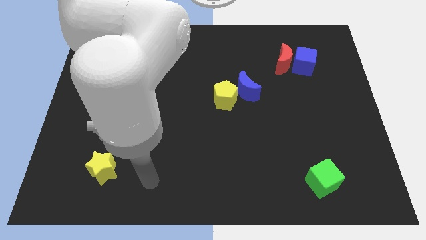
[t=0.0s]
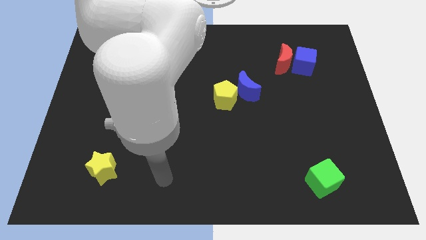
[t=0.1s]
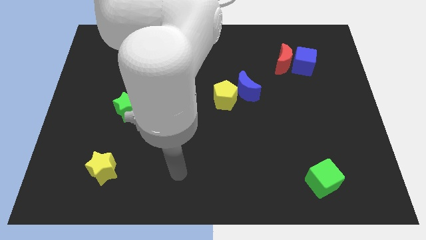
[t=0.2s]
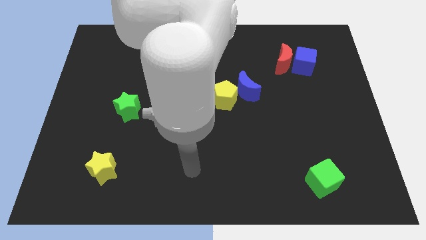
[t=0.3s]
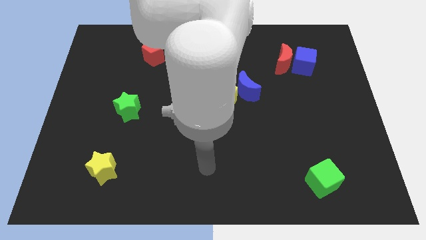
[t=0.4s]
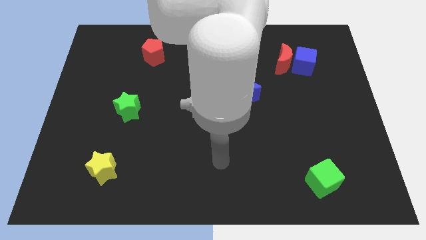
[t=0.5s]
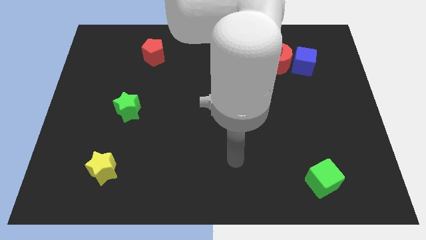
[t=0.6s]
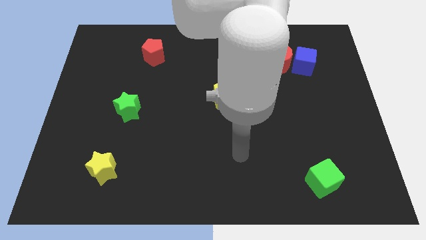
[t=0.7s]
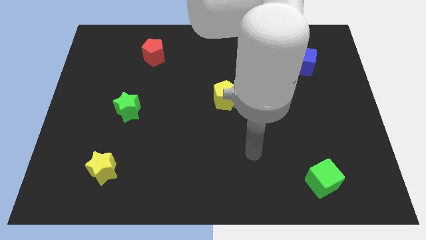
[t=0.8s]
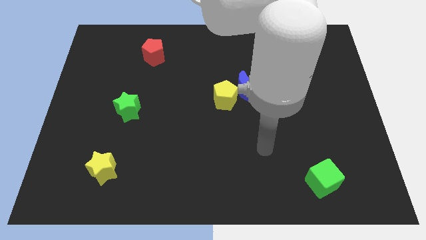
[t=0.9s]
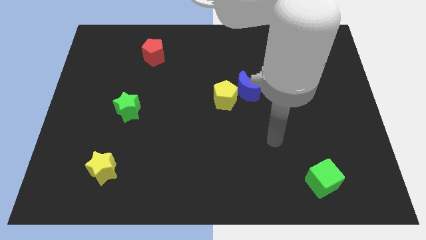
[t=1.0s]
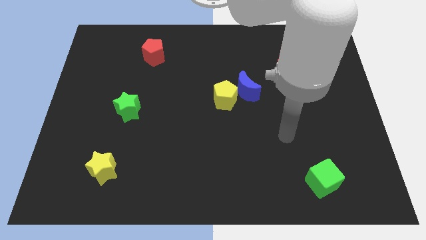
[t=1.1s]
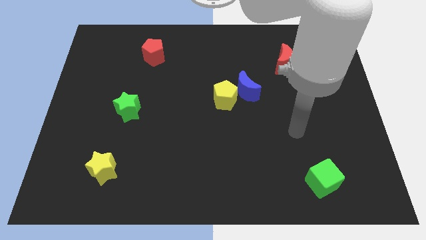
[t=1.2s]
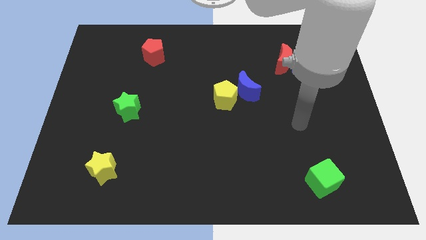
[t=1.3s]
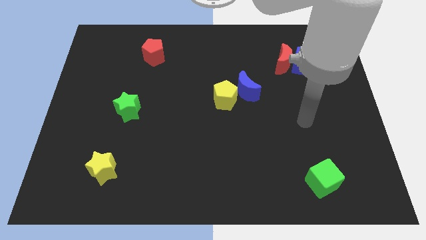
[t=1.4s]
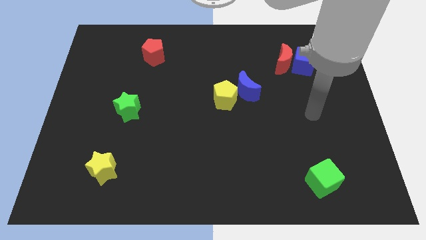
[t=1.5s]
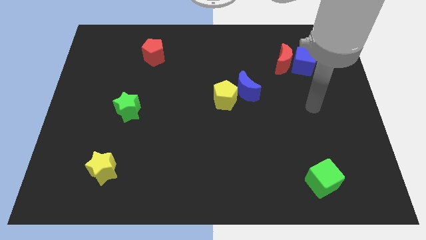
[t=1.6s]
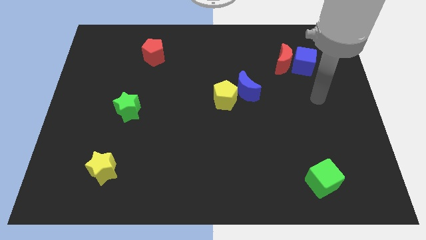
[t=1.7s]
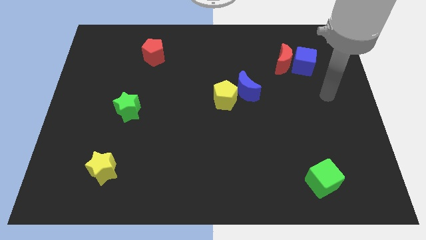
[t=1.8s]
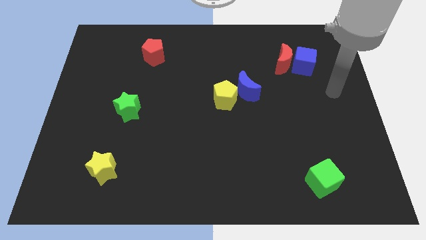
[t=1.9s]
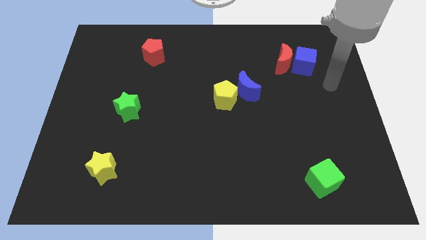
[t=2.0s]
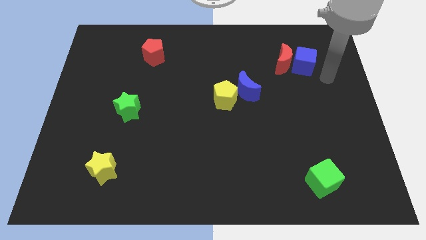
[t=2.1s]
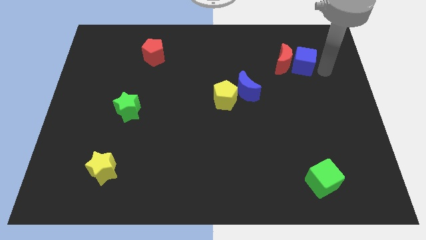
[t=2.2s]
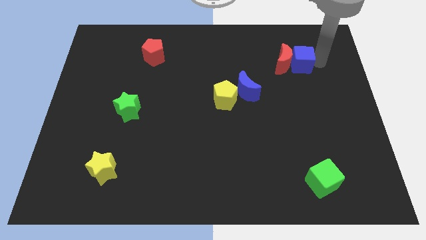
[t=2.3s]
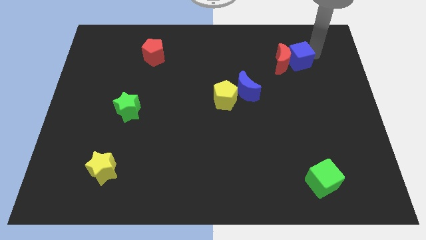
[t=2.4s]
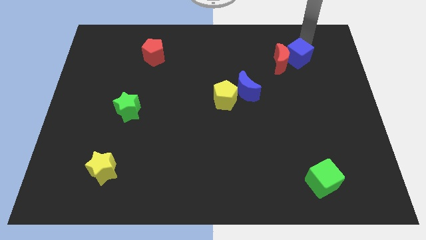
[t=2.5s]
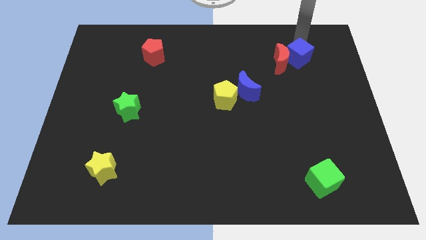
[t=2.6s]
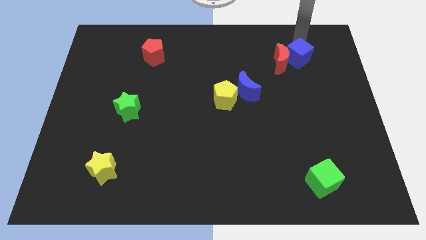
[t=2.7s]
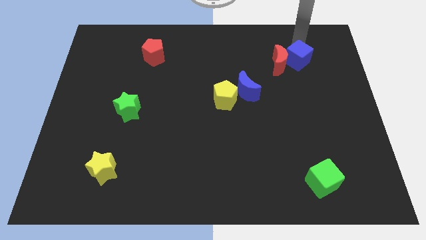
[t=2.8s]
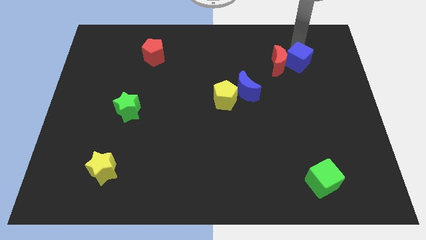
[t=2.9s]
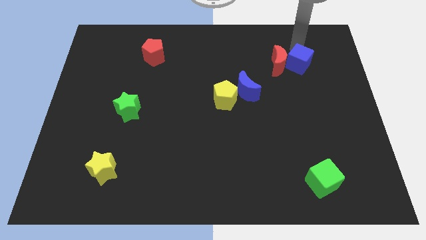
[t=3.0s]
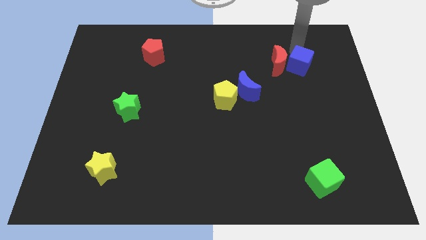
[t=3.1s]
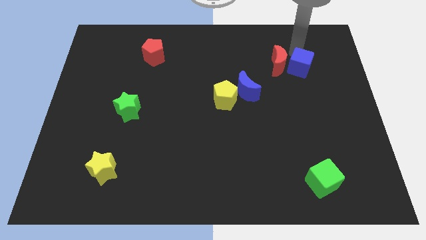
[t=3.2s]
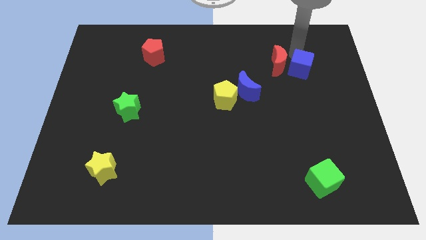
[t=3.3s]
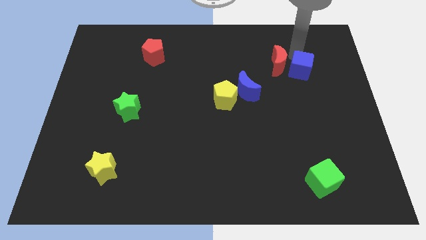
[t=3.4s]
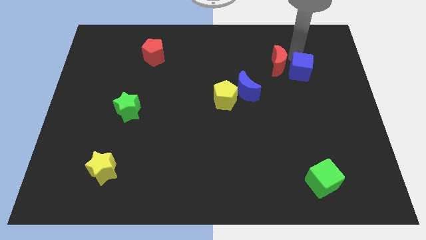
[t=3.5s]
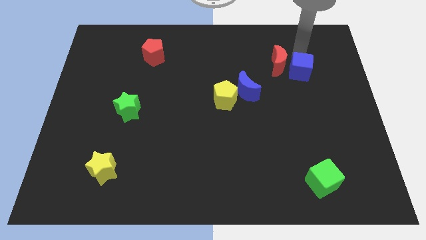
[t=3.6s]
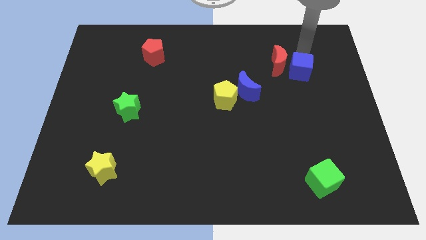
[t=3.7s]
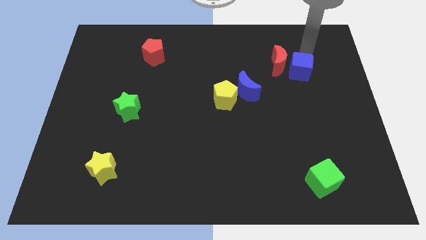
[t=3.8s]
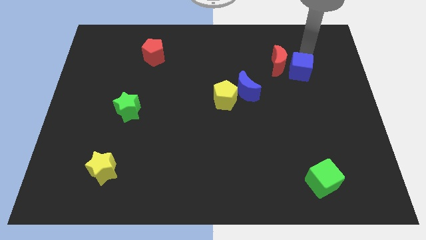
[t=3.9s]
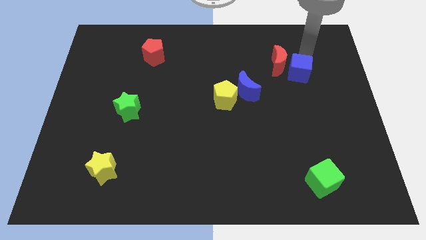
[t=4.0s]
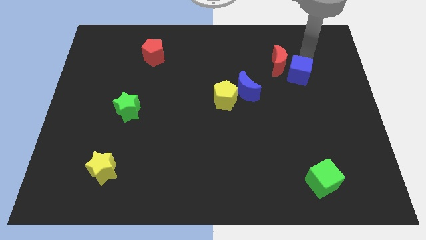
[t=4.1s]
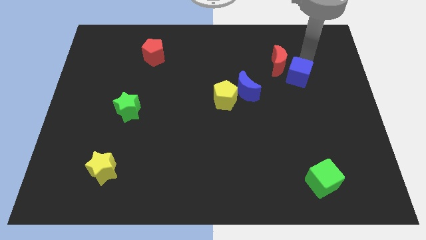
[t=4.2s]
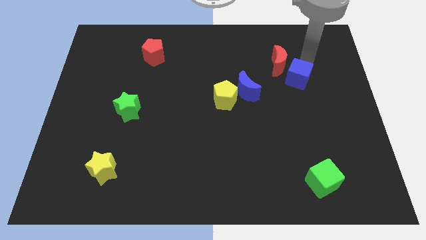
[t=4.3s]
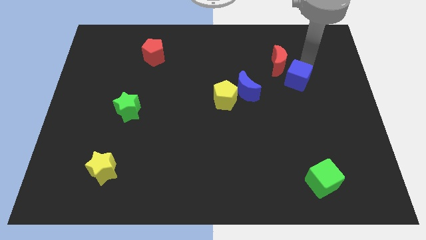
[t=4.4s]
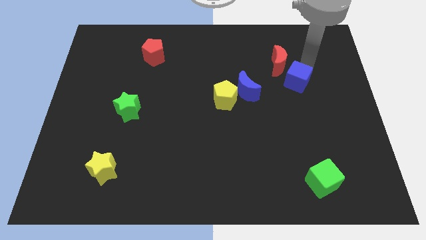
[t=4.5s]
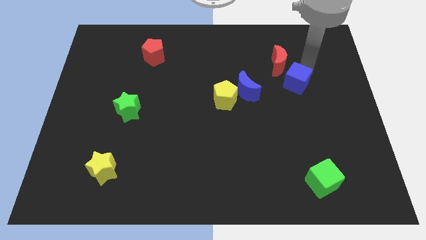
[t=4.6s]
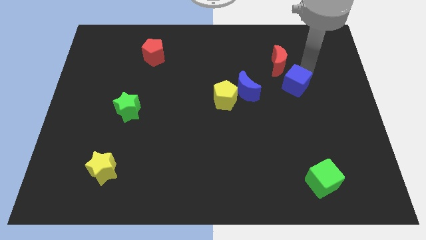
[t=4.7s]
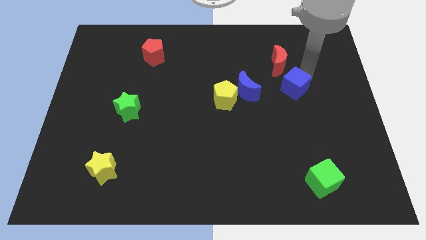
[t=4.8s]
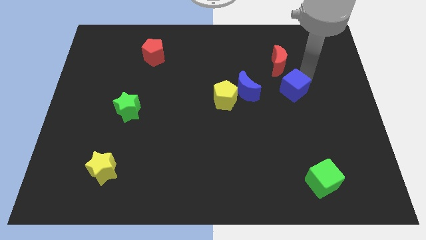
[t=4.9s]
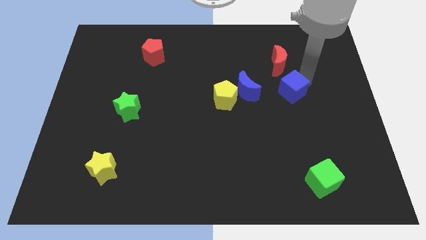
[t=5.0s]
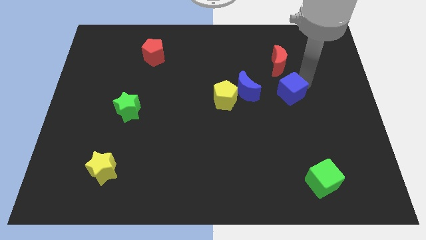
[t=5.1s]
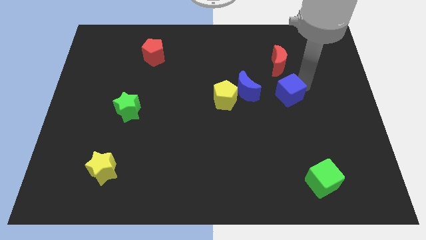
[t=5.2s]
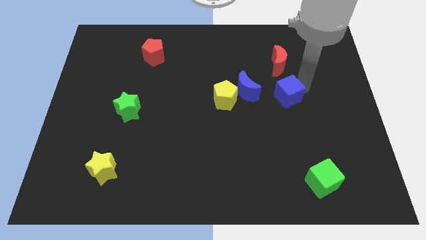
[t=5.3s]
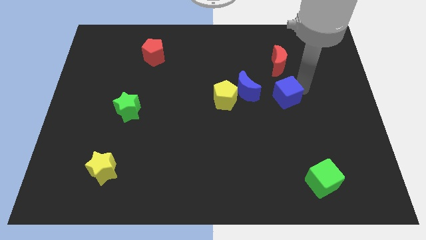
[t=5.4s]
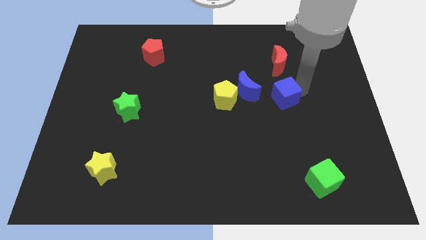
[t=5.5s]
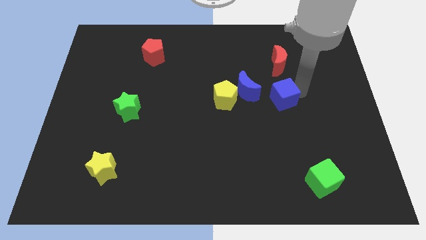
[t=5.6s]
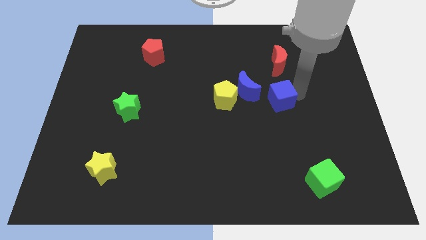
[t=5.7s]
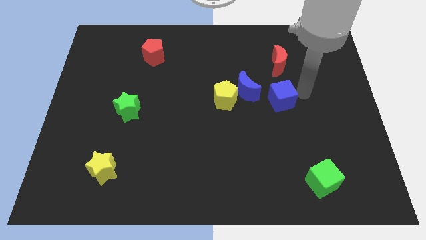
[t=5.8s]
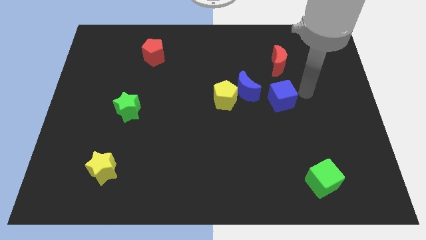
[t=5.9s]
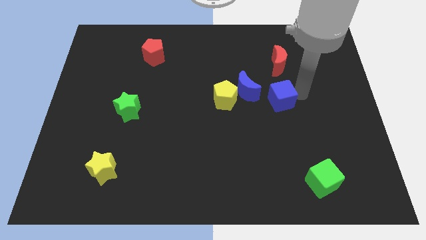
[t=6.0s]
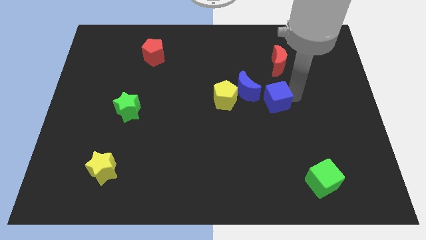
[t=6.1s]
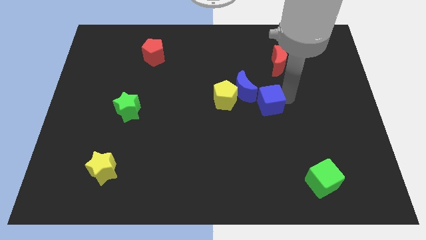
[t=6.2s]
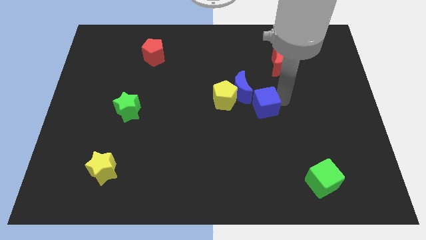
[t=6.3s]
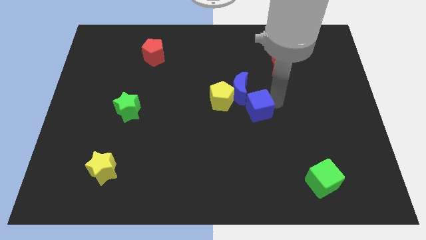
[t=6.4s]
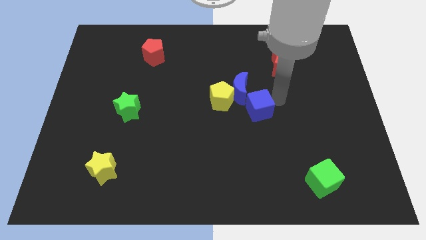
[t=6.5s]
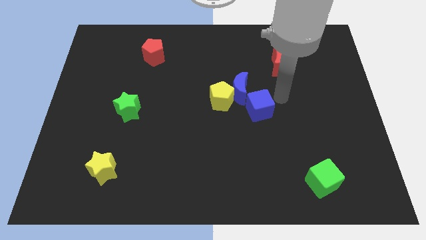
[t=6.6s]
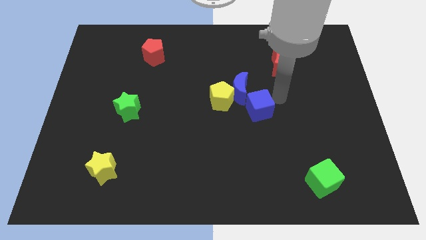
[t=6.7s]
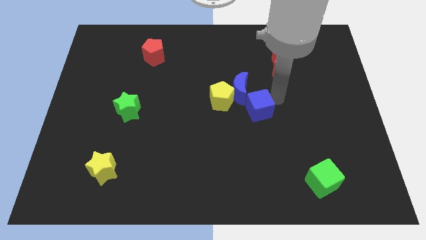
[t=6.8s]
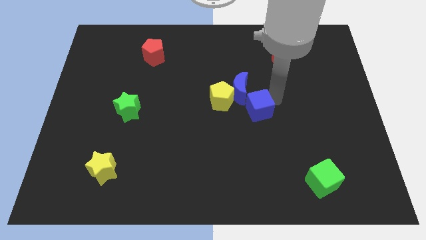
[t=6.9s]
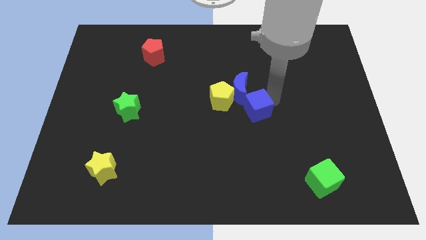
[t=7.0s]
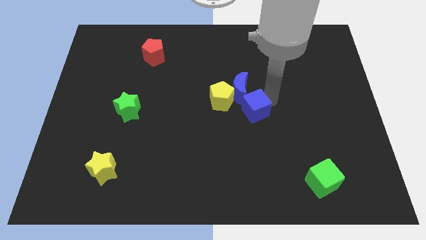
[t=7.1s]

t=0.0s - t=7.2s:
push the blue cube downwards and to the left

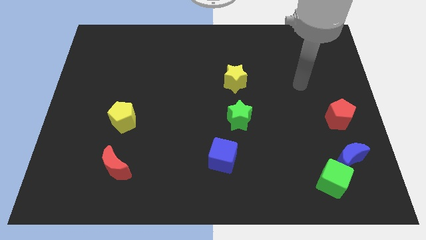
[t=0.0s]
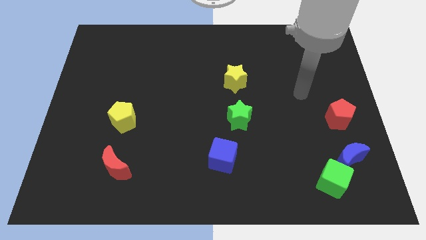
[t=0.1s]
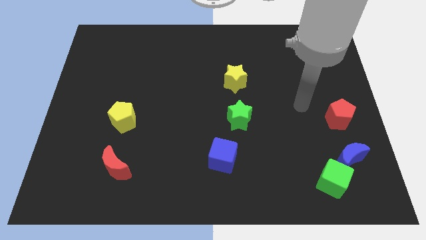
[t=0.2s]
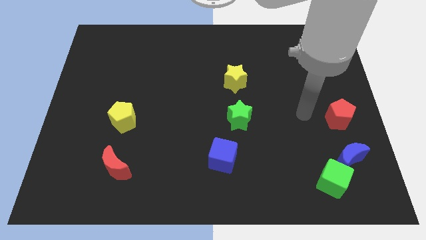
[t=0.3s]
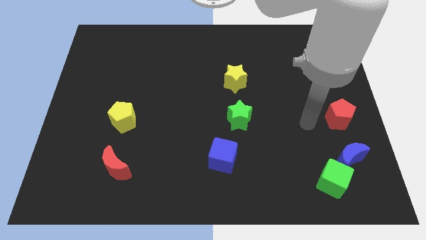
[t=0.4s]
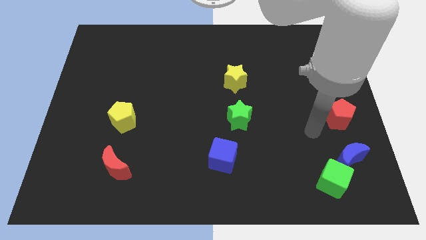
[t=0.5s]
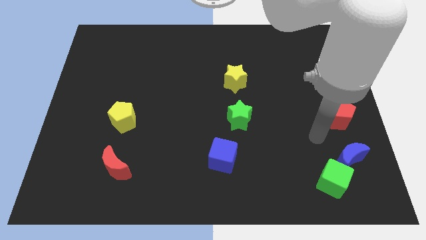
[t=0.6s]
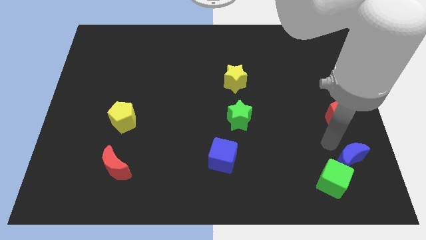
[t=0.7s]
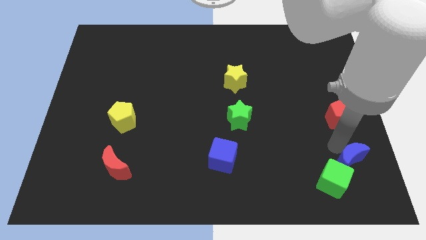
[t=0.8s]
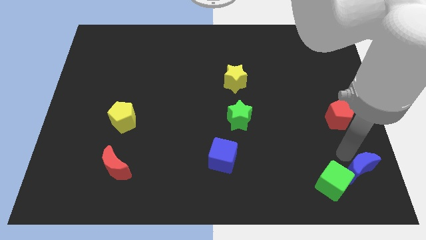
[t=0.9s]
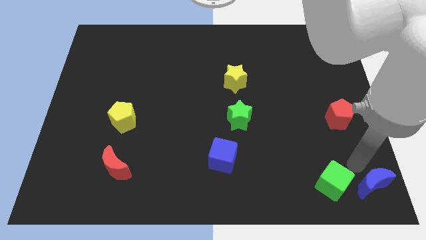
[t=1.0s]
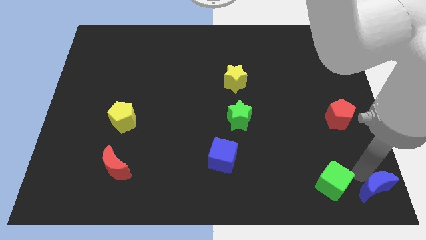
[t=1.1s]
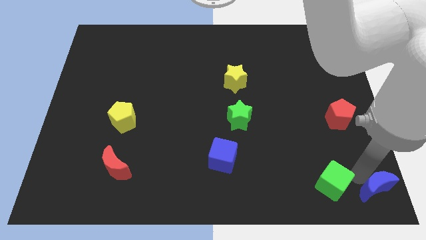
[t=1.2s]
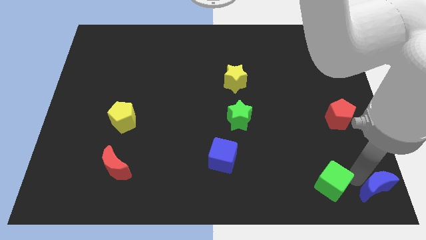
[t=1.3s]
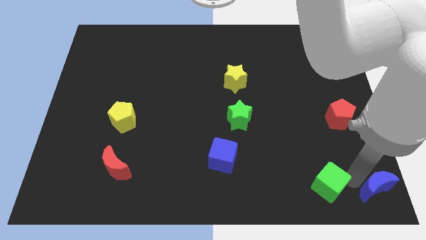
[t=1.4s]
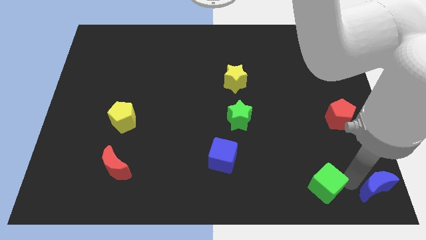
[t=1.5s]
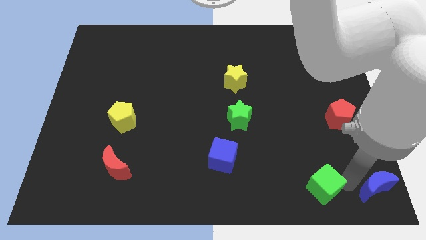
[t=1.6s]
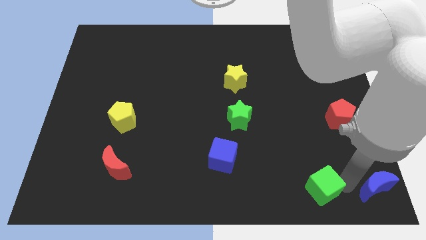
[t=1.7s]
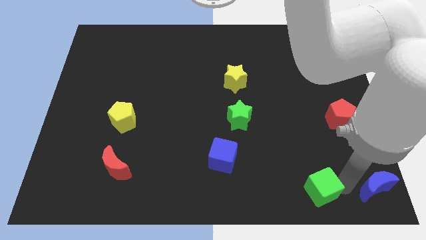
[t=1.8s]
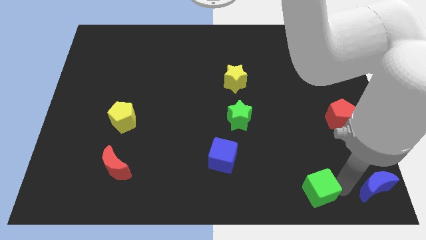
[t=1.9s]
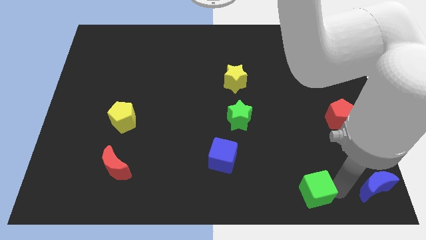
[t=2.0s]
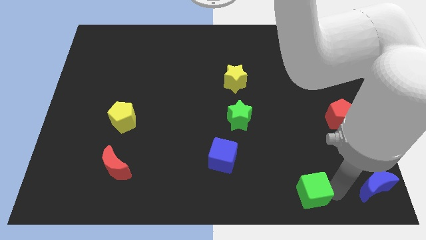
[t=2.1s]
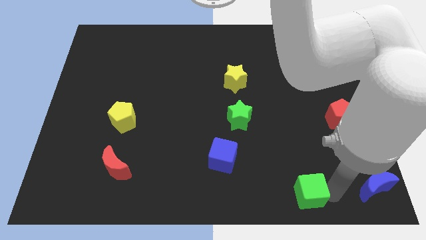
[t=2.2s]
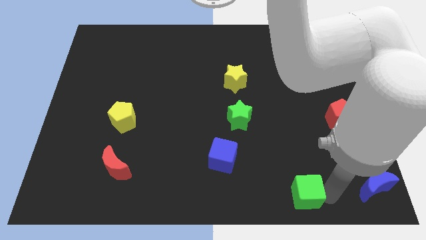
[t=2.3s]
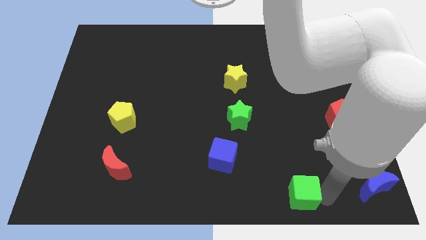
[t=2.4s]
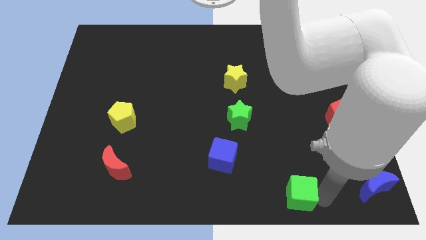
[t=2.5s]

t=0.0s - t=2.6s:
move the green cube left somewhat
